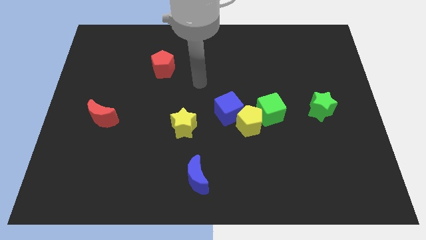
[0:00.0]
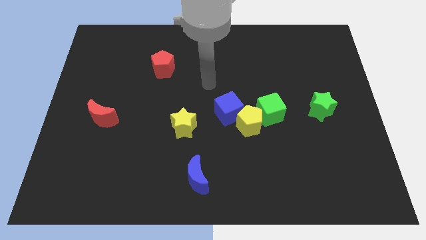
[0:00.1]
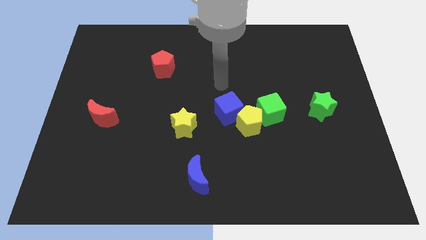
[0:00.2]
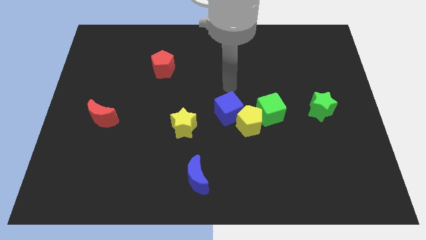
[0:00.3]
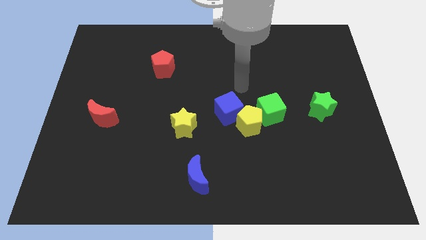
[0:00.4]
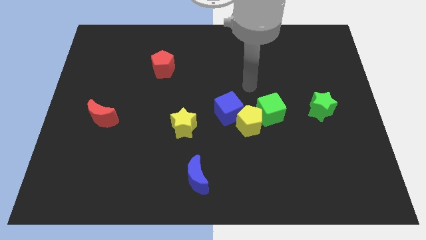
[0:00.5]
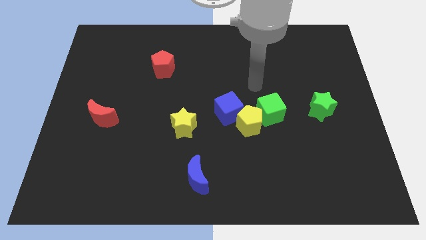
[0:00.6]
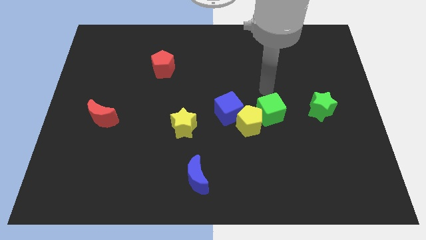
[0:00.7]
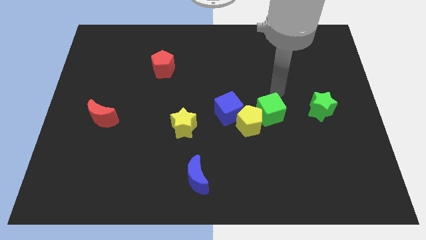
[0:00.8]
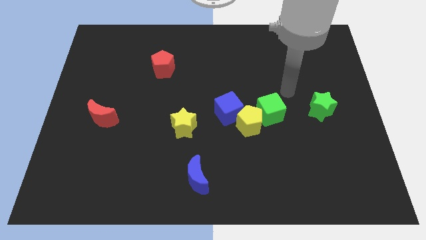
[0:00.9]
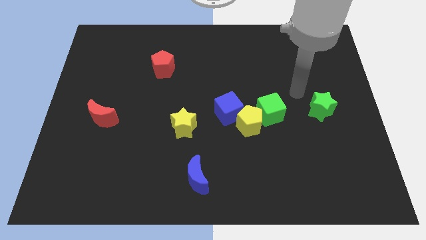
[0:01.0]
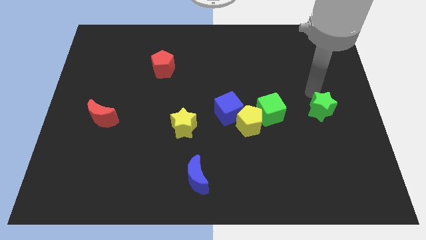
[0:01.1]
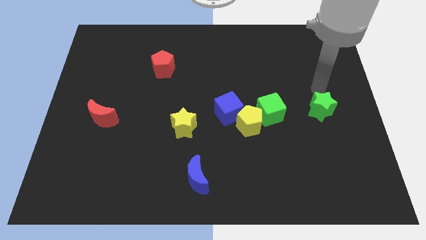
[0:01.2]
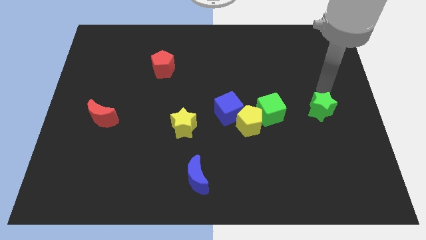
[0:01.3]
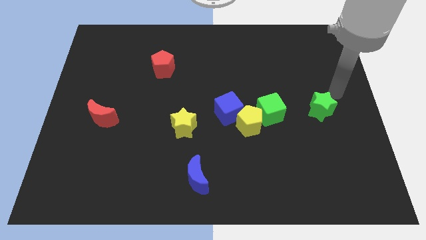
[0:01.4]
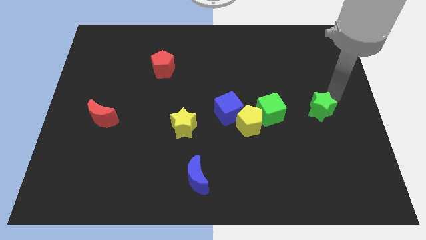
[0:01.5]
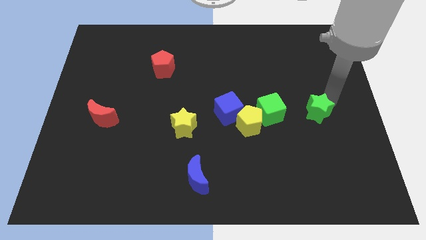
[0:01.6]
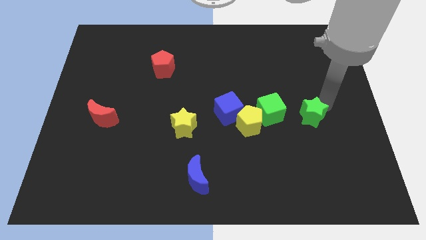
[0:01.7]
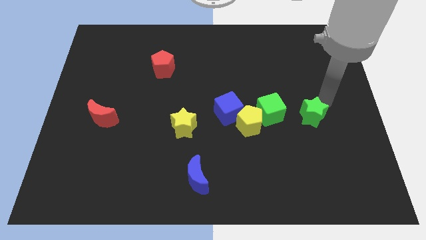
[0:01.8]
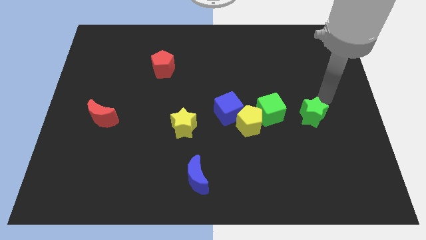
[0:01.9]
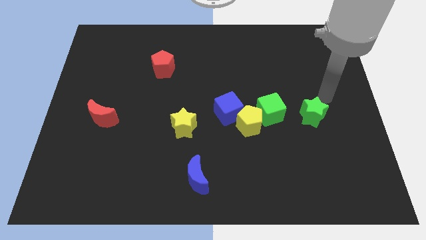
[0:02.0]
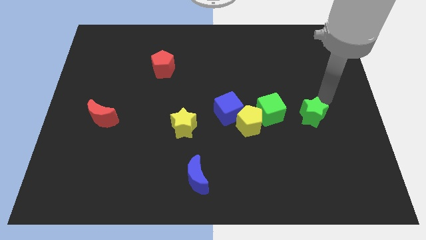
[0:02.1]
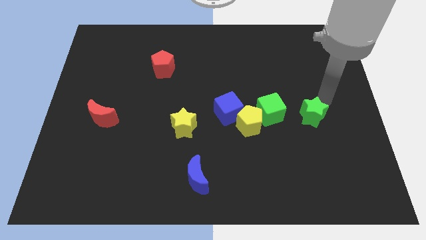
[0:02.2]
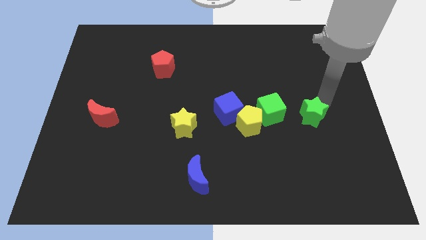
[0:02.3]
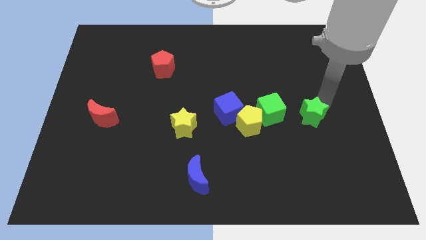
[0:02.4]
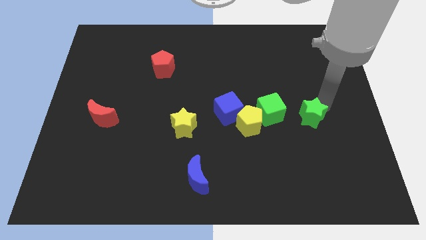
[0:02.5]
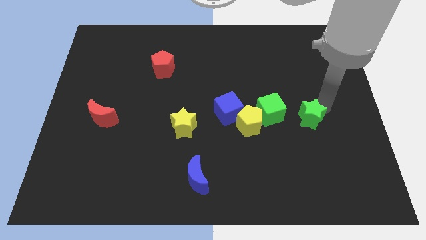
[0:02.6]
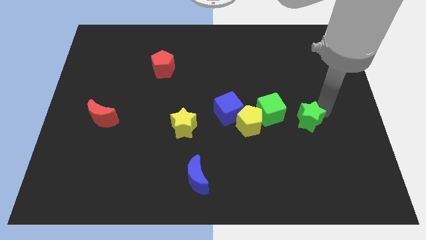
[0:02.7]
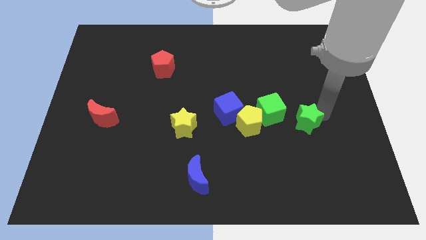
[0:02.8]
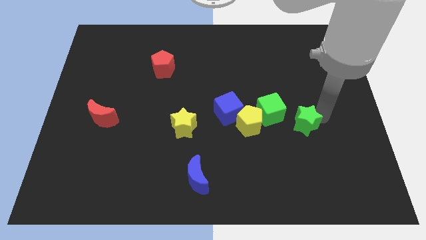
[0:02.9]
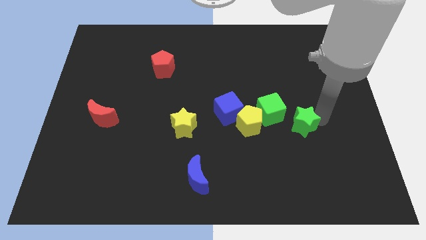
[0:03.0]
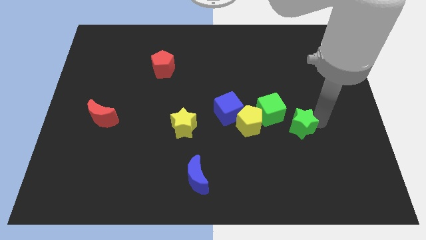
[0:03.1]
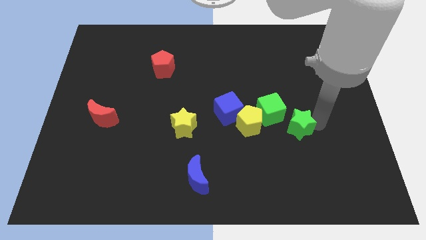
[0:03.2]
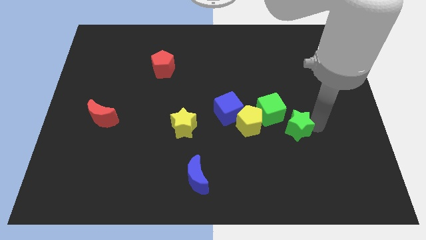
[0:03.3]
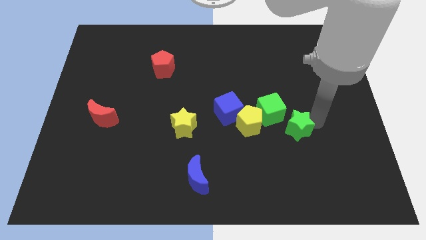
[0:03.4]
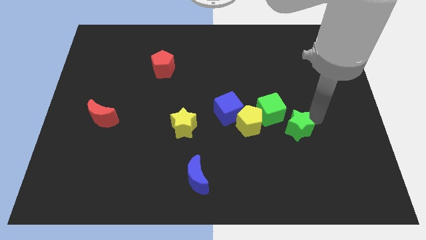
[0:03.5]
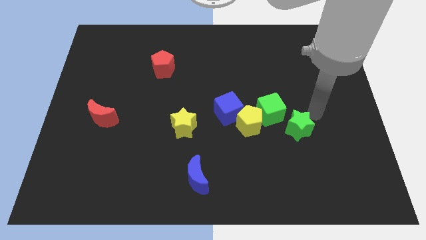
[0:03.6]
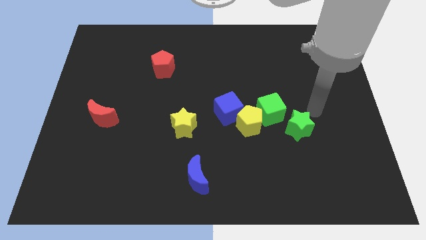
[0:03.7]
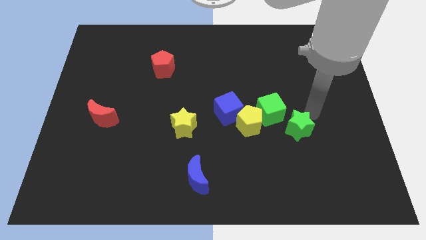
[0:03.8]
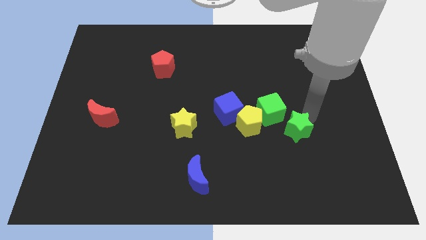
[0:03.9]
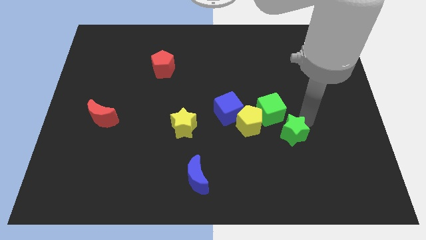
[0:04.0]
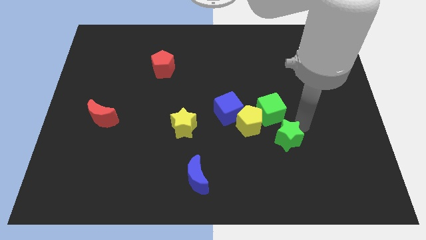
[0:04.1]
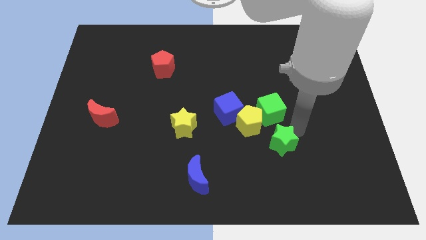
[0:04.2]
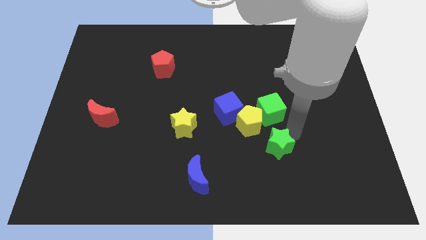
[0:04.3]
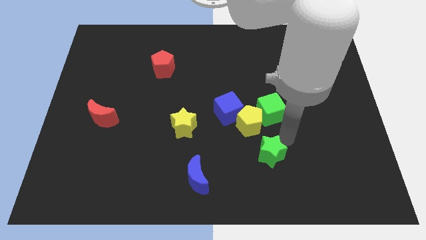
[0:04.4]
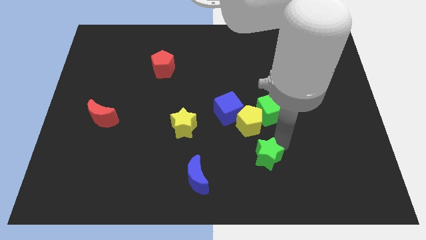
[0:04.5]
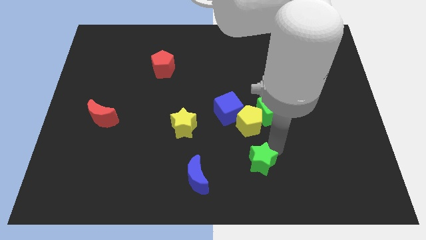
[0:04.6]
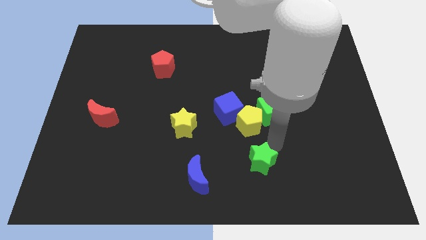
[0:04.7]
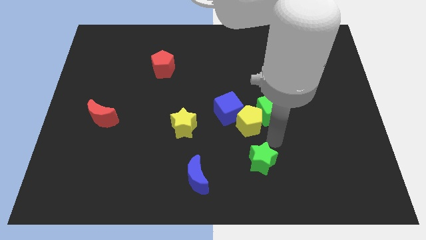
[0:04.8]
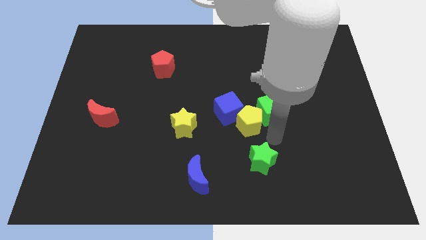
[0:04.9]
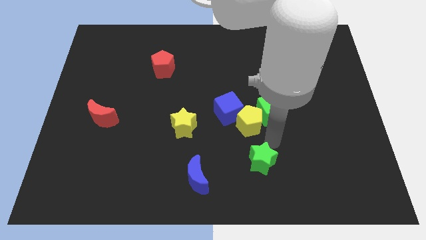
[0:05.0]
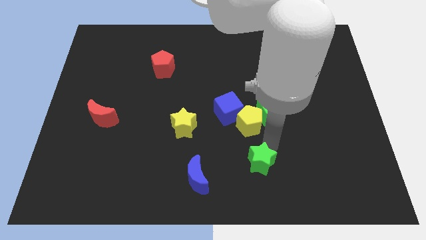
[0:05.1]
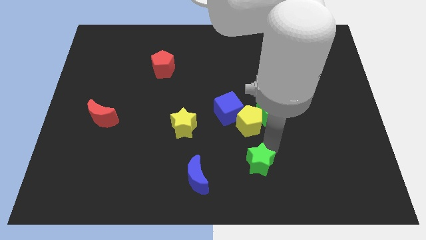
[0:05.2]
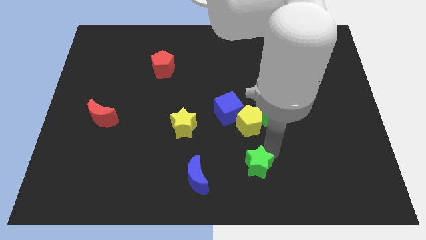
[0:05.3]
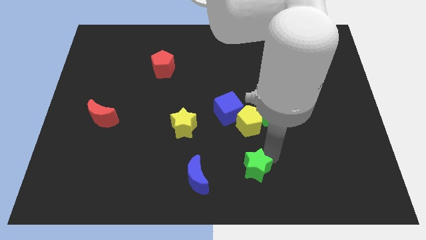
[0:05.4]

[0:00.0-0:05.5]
slide the green star to the bottom
